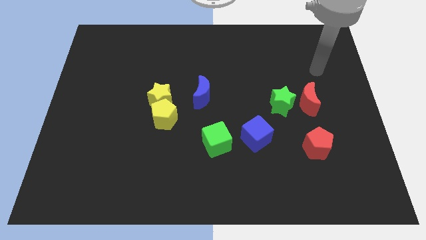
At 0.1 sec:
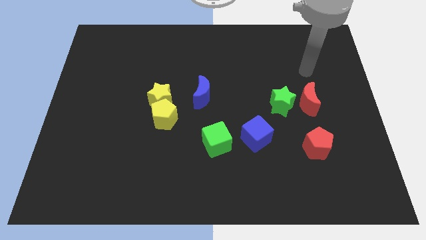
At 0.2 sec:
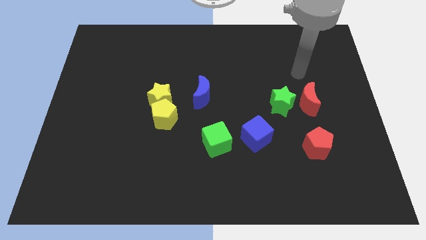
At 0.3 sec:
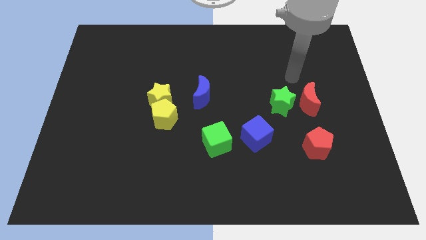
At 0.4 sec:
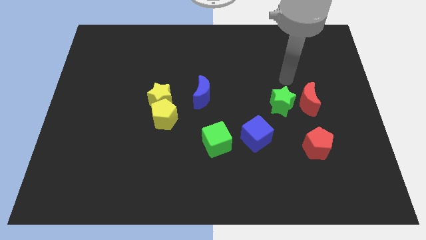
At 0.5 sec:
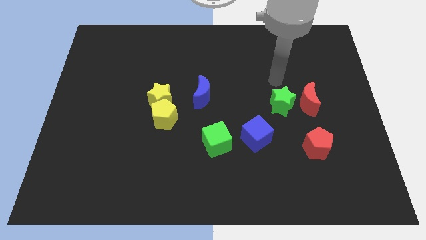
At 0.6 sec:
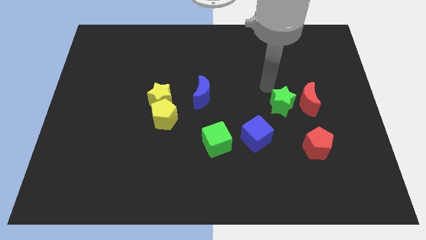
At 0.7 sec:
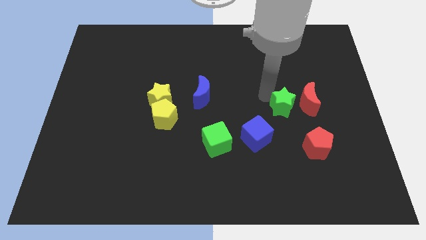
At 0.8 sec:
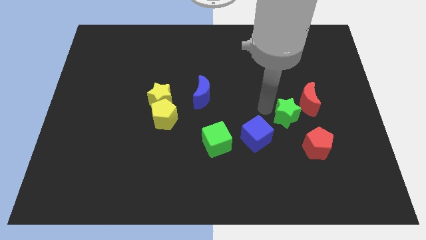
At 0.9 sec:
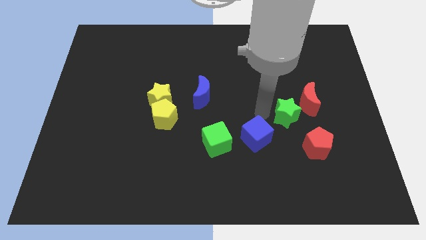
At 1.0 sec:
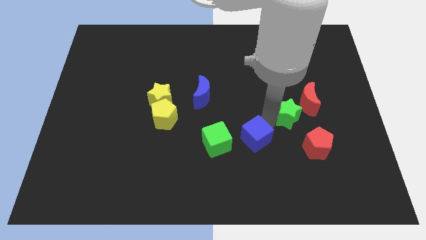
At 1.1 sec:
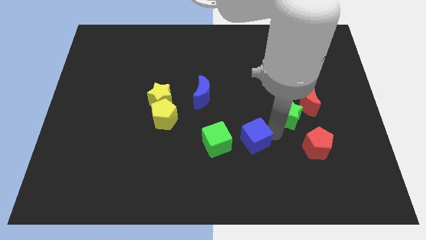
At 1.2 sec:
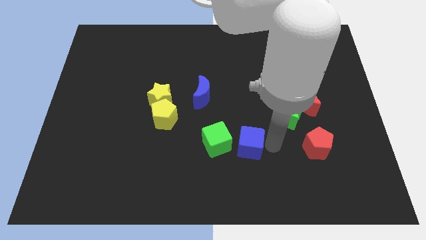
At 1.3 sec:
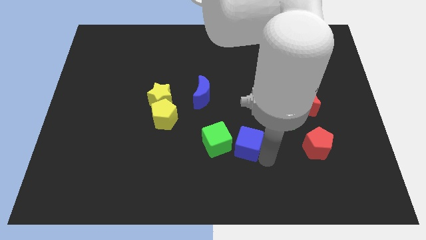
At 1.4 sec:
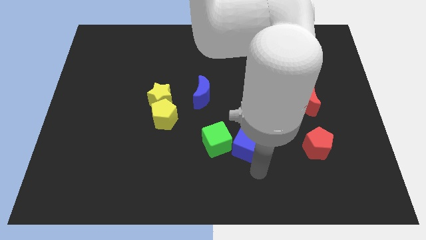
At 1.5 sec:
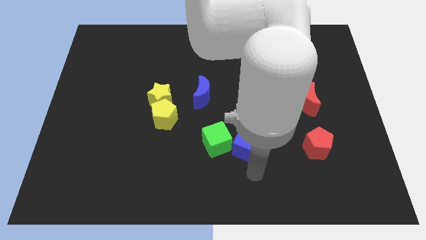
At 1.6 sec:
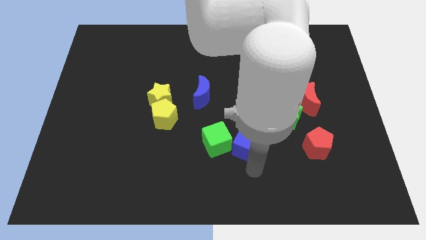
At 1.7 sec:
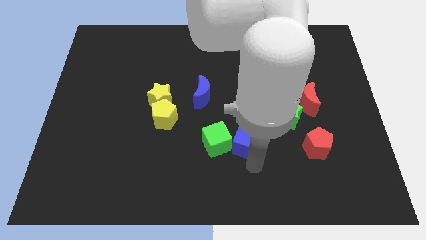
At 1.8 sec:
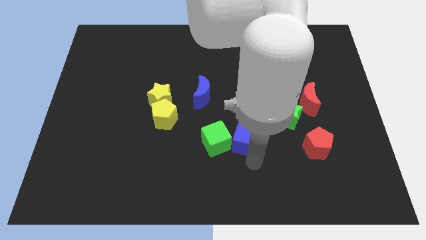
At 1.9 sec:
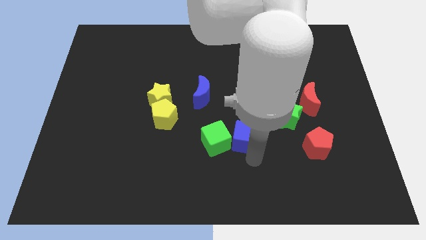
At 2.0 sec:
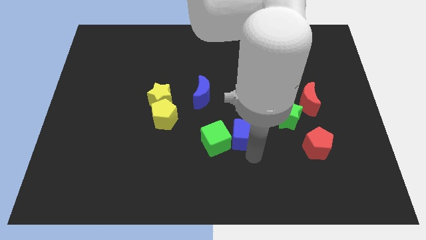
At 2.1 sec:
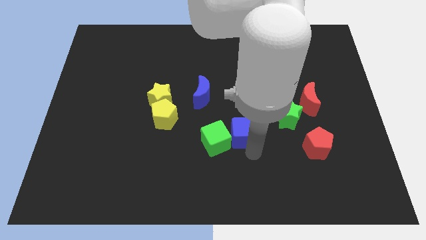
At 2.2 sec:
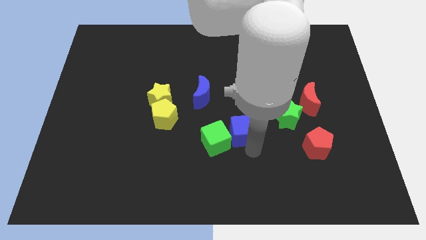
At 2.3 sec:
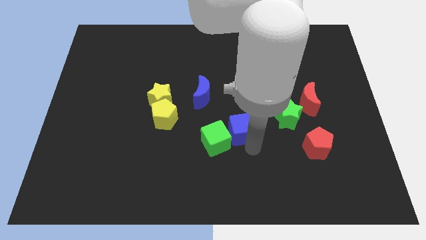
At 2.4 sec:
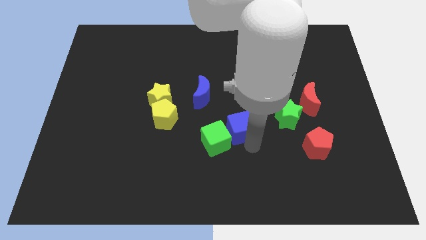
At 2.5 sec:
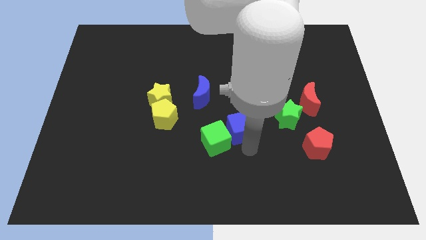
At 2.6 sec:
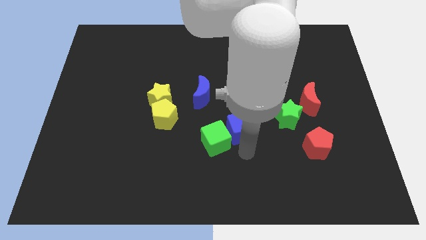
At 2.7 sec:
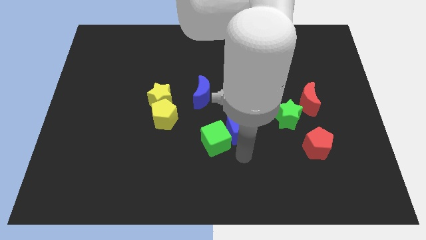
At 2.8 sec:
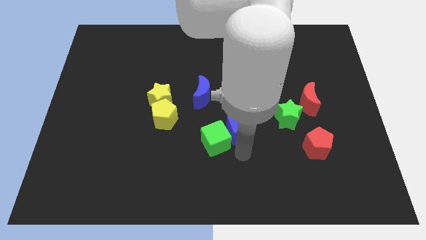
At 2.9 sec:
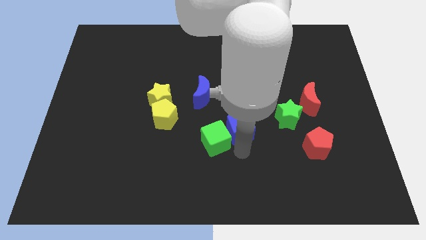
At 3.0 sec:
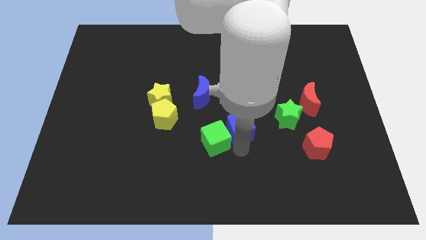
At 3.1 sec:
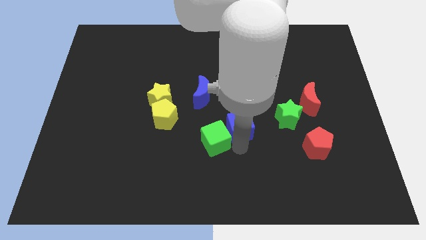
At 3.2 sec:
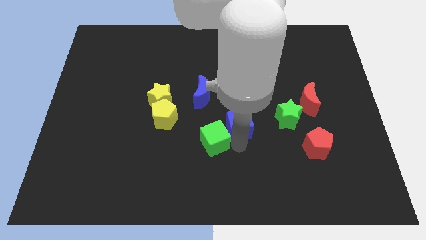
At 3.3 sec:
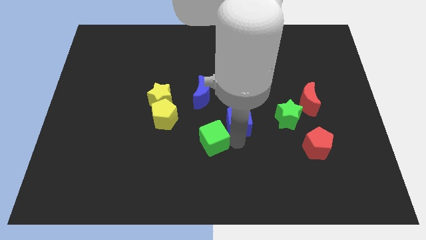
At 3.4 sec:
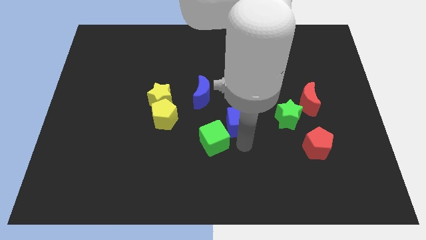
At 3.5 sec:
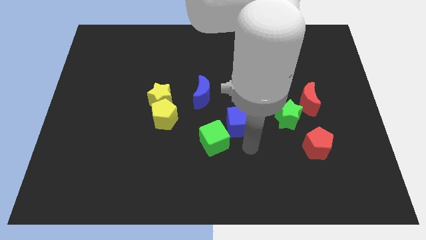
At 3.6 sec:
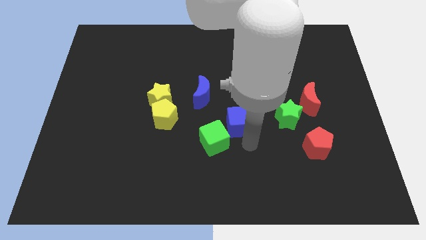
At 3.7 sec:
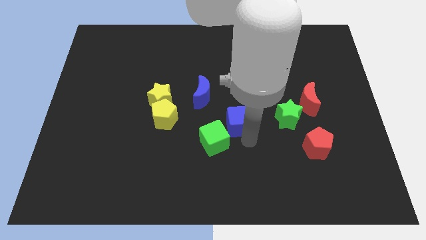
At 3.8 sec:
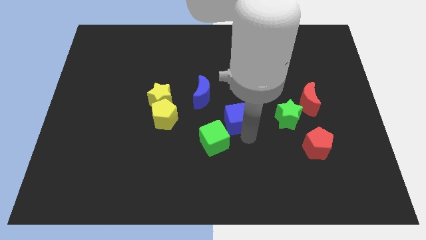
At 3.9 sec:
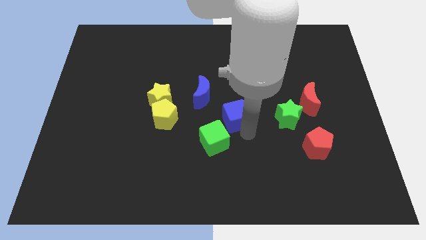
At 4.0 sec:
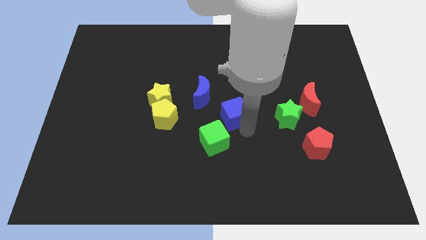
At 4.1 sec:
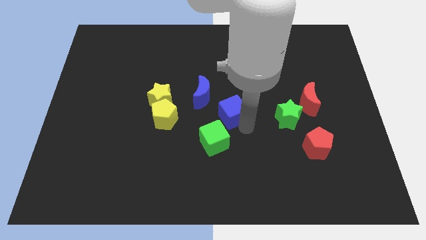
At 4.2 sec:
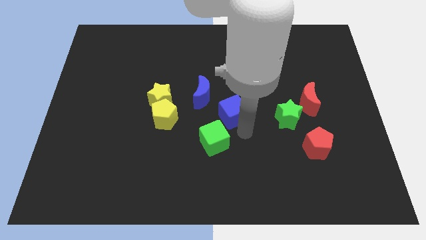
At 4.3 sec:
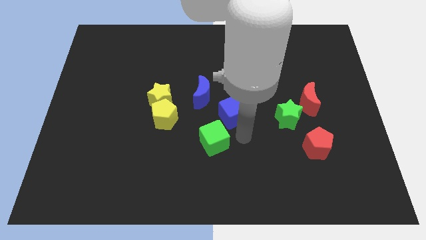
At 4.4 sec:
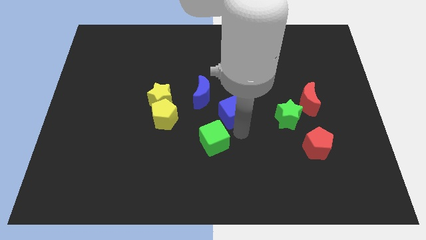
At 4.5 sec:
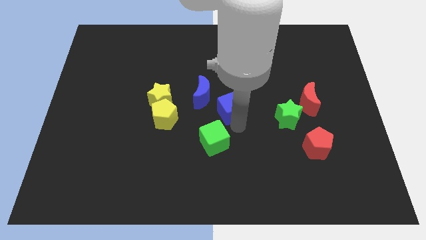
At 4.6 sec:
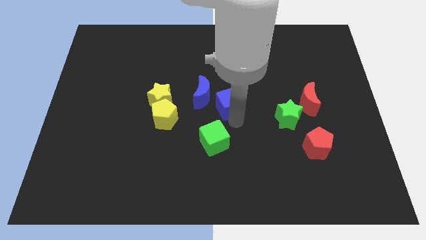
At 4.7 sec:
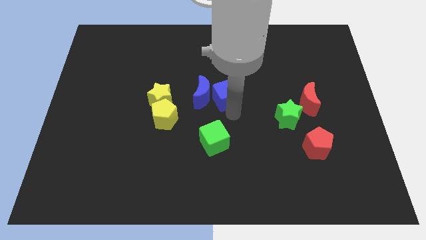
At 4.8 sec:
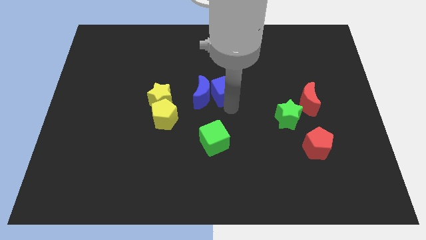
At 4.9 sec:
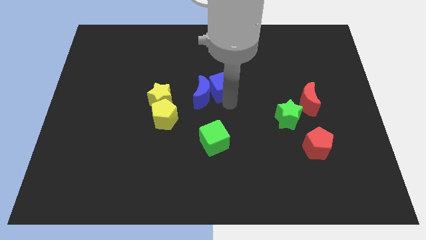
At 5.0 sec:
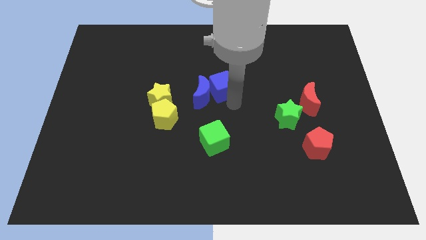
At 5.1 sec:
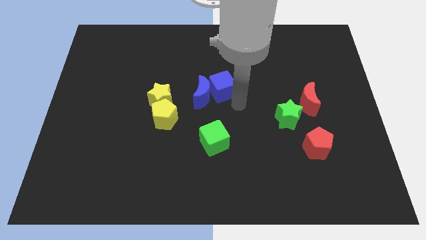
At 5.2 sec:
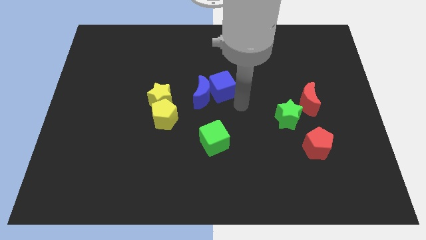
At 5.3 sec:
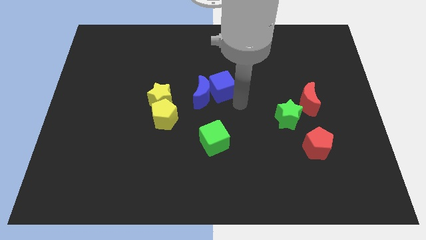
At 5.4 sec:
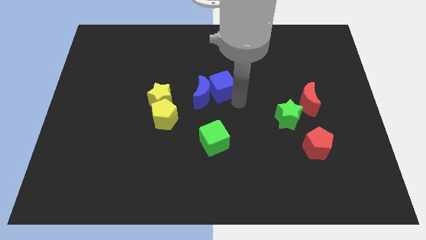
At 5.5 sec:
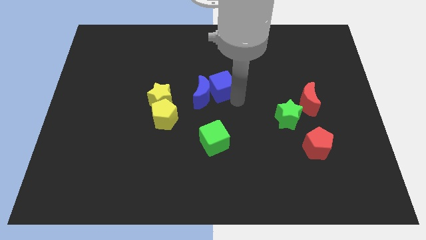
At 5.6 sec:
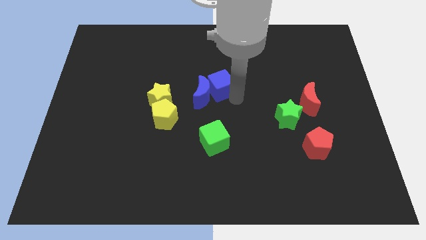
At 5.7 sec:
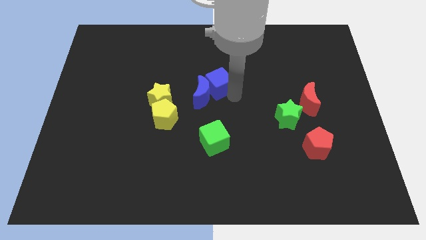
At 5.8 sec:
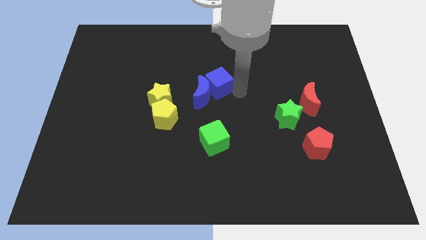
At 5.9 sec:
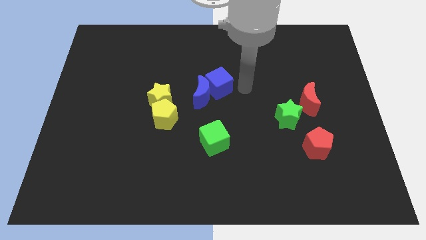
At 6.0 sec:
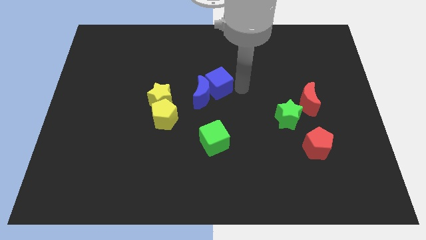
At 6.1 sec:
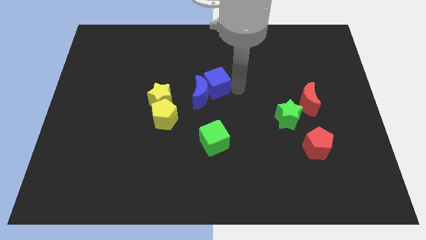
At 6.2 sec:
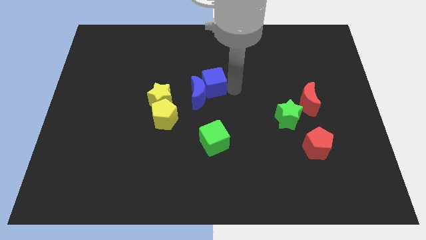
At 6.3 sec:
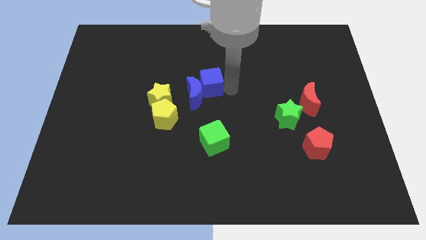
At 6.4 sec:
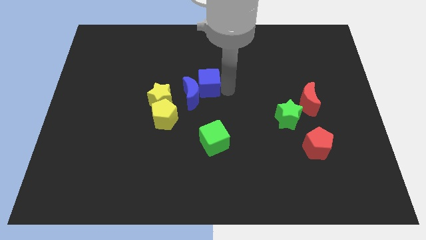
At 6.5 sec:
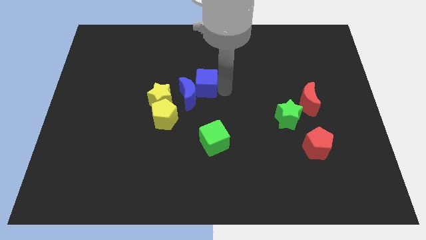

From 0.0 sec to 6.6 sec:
slide the blue cube diagonally up and to the right of the yellow star

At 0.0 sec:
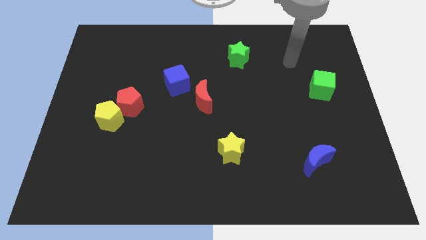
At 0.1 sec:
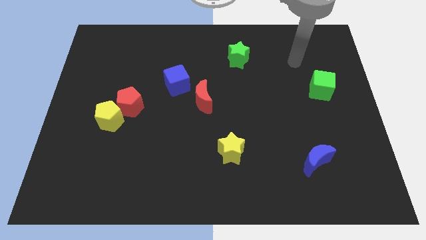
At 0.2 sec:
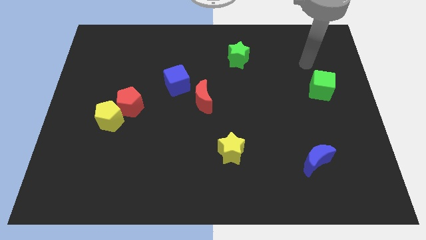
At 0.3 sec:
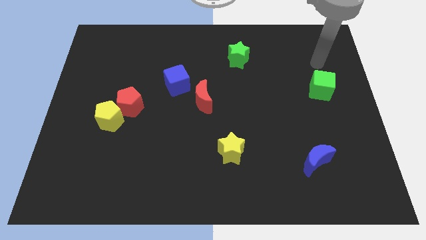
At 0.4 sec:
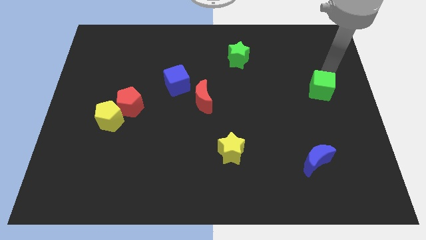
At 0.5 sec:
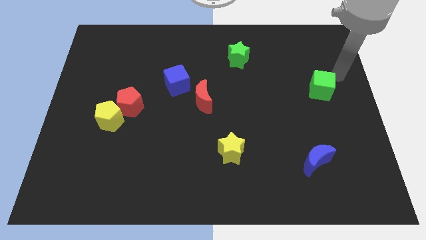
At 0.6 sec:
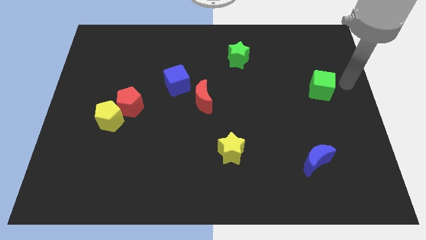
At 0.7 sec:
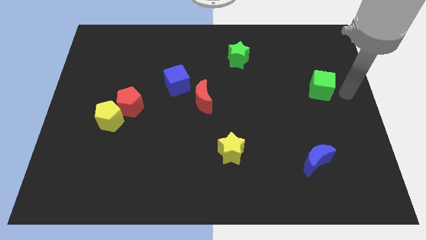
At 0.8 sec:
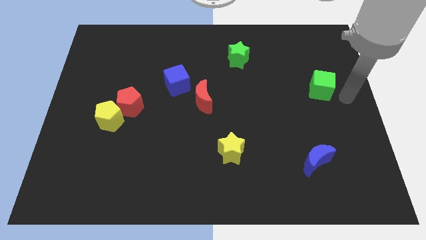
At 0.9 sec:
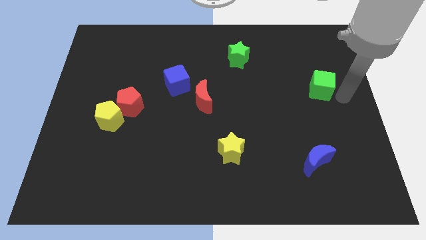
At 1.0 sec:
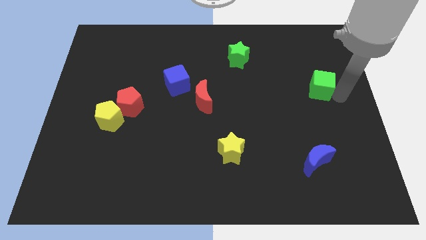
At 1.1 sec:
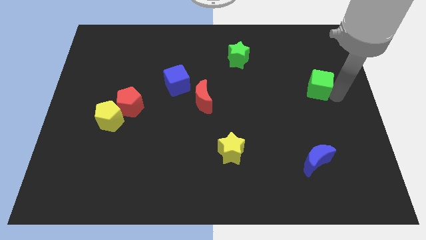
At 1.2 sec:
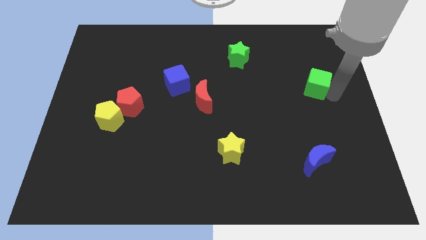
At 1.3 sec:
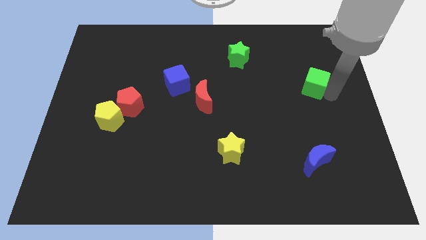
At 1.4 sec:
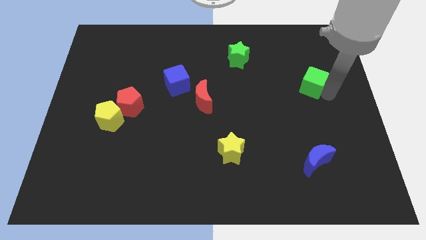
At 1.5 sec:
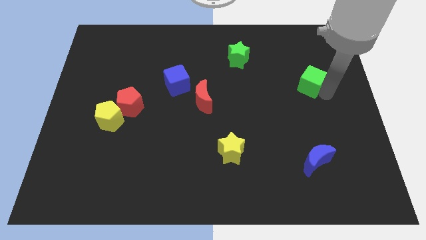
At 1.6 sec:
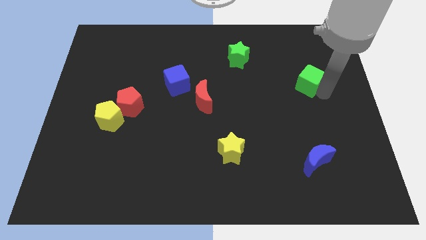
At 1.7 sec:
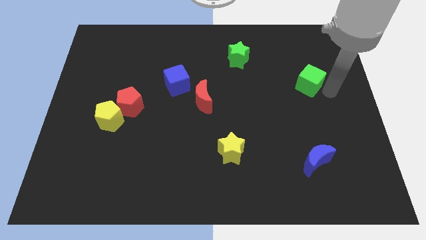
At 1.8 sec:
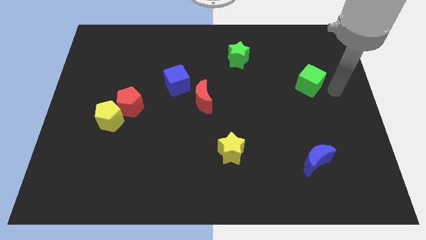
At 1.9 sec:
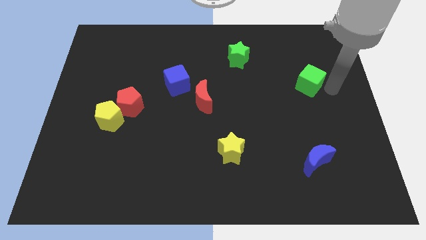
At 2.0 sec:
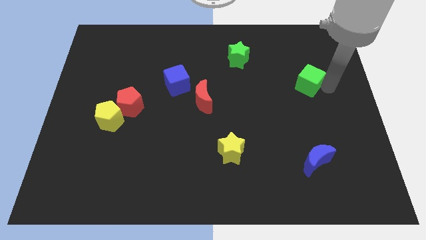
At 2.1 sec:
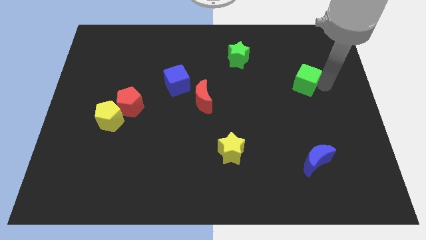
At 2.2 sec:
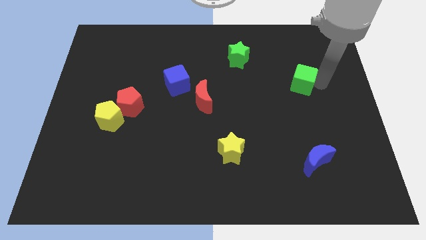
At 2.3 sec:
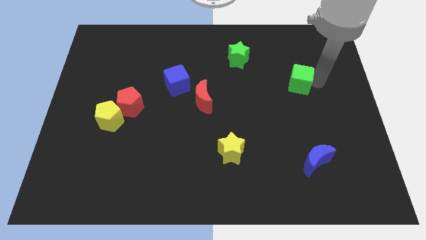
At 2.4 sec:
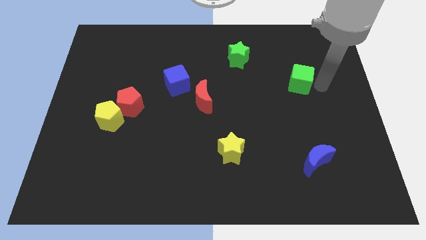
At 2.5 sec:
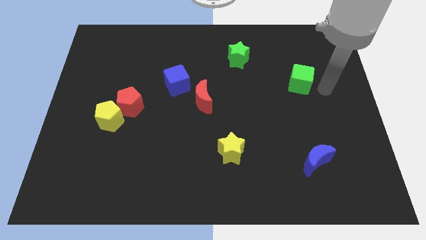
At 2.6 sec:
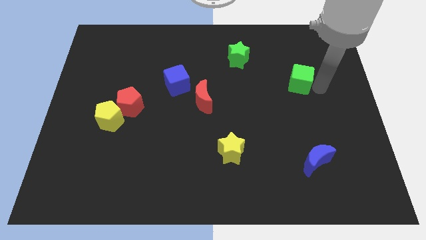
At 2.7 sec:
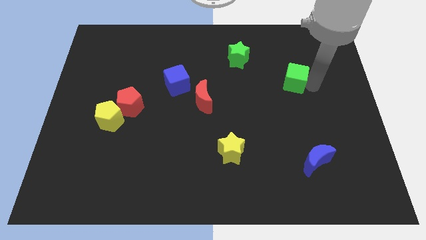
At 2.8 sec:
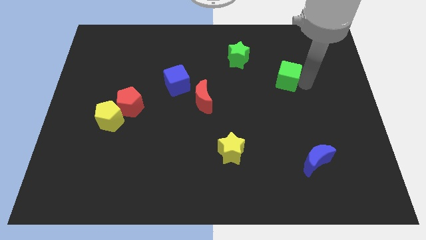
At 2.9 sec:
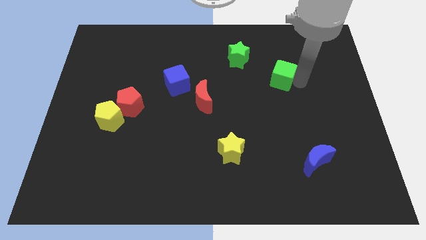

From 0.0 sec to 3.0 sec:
push the green cube to the bottom right side of the green star
